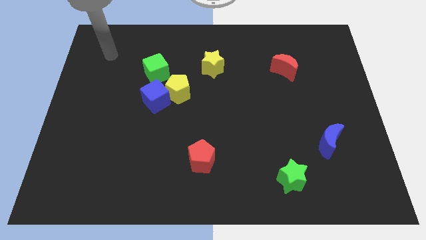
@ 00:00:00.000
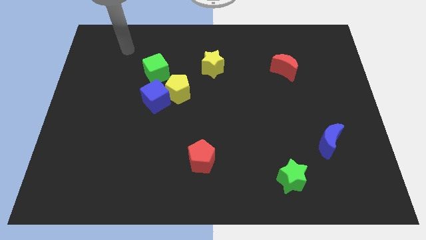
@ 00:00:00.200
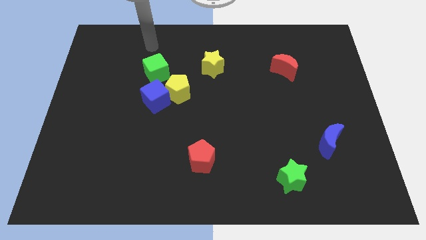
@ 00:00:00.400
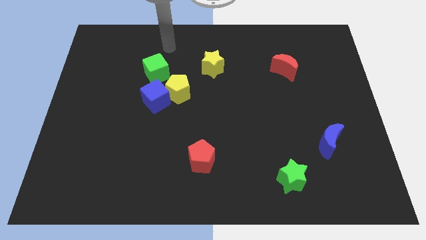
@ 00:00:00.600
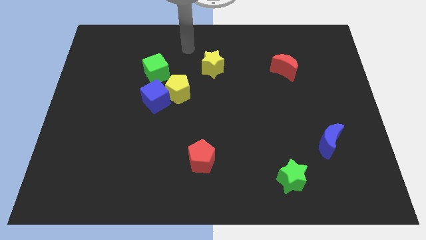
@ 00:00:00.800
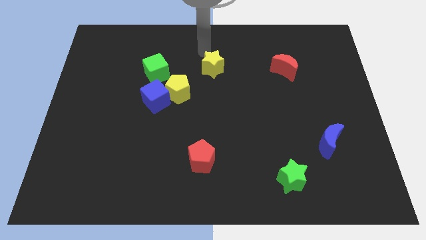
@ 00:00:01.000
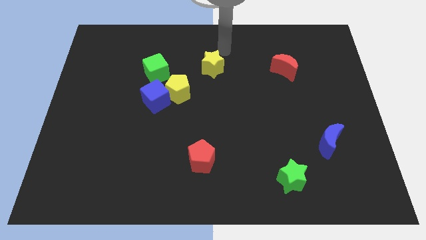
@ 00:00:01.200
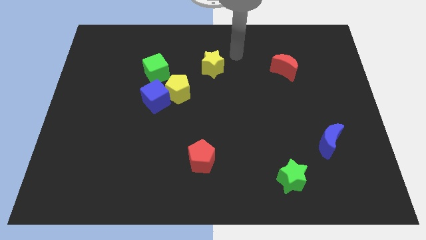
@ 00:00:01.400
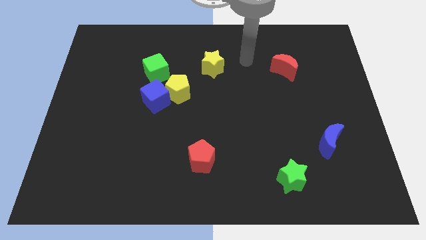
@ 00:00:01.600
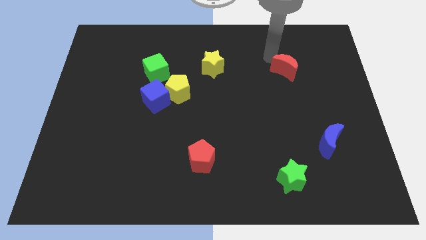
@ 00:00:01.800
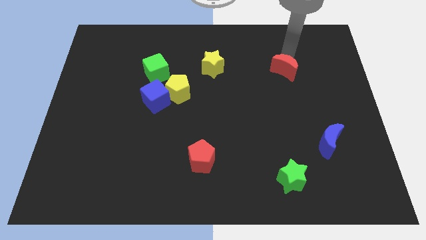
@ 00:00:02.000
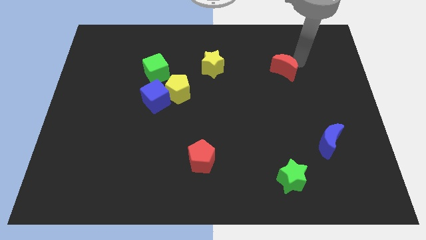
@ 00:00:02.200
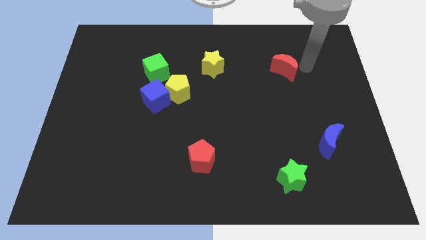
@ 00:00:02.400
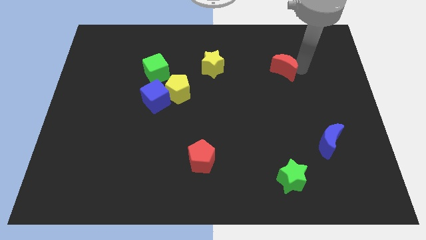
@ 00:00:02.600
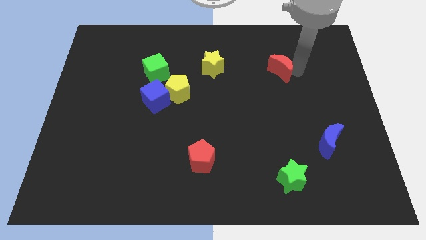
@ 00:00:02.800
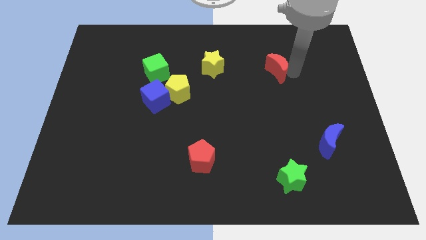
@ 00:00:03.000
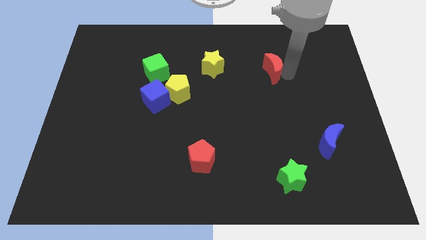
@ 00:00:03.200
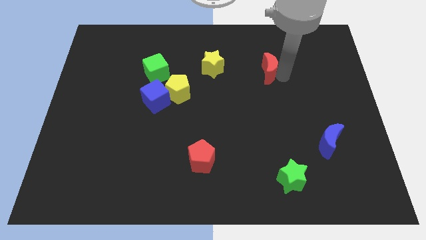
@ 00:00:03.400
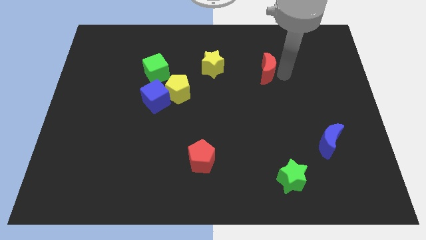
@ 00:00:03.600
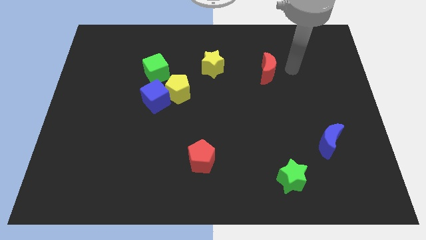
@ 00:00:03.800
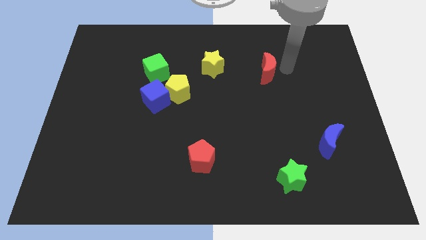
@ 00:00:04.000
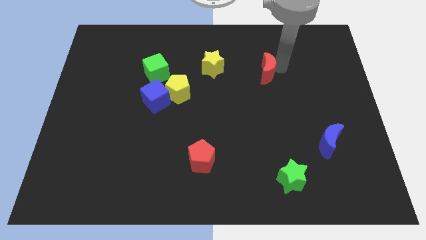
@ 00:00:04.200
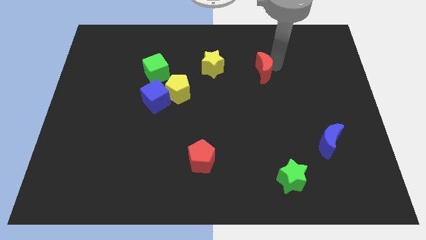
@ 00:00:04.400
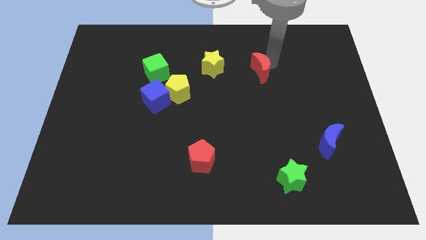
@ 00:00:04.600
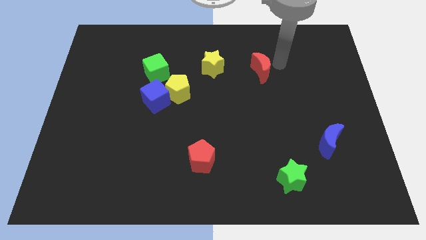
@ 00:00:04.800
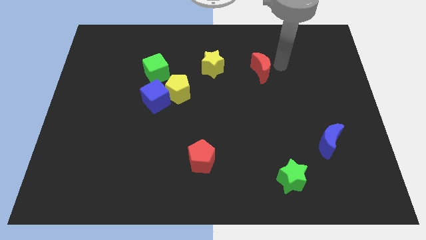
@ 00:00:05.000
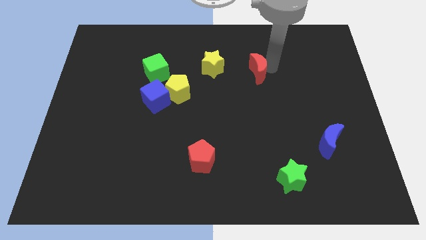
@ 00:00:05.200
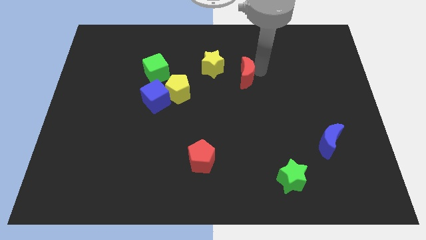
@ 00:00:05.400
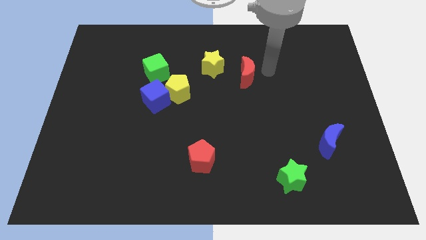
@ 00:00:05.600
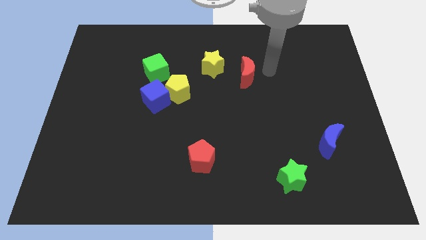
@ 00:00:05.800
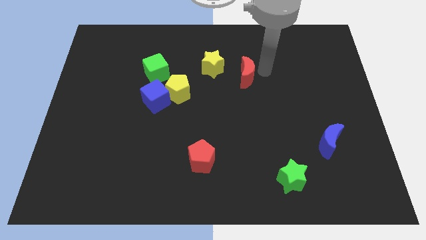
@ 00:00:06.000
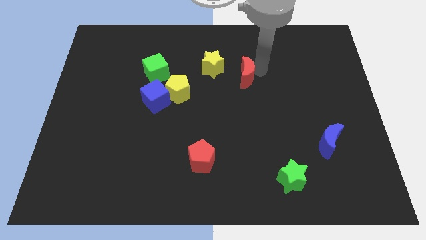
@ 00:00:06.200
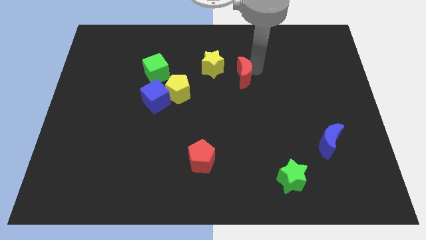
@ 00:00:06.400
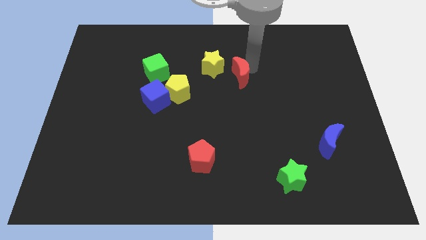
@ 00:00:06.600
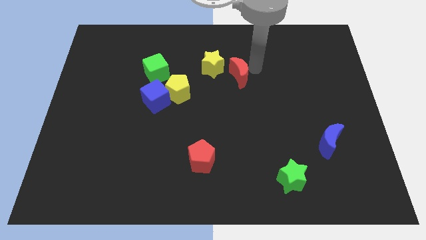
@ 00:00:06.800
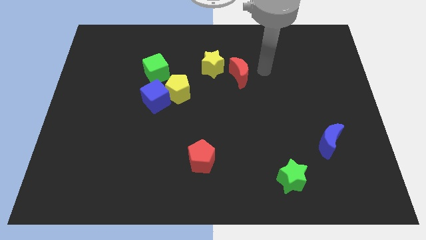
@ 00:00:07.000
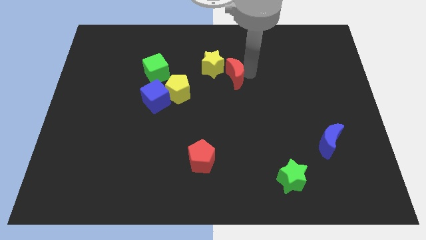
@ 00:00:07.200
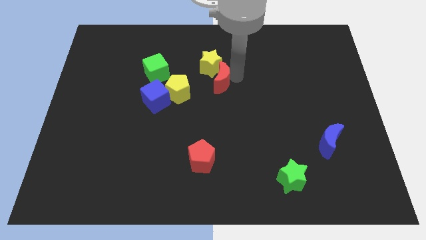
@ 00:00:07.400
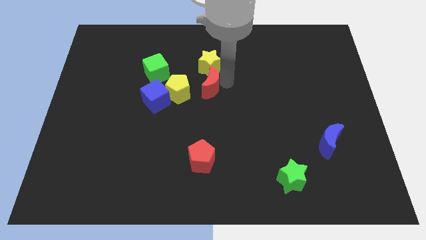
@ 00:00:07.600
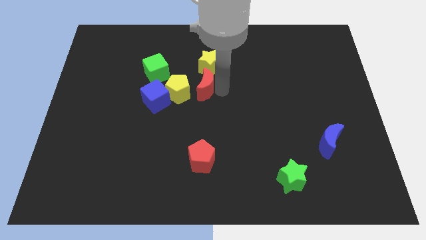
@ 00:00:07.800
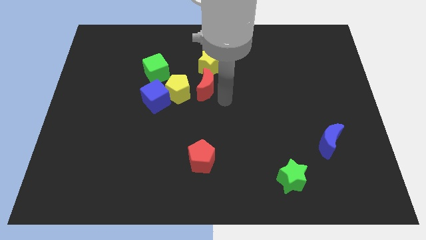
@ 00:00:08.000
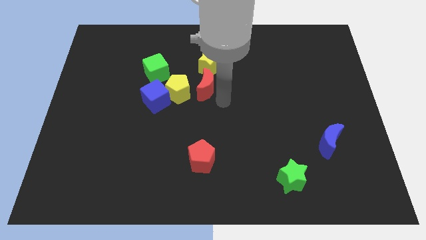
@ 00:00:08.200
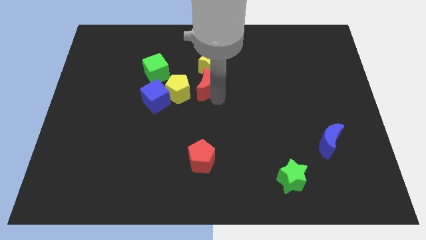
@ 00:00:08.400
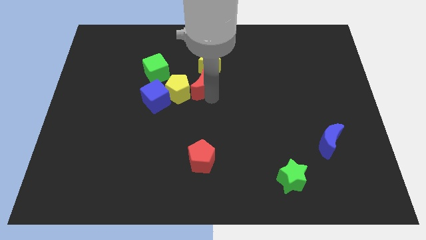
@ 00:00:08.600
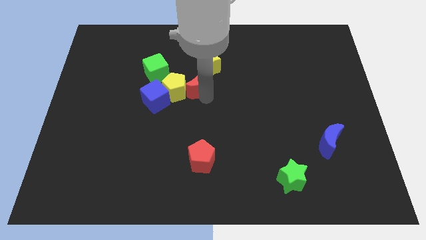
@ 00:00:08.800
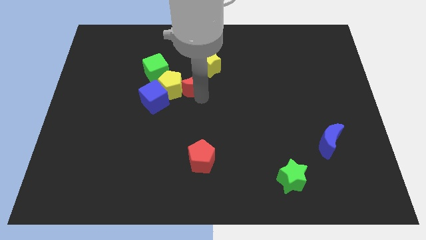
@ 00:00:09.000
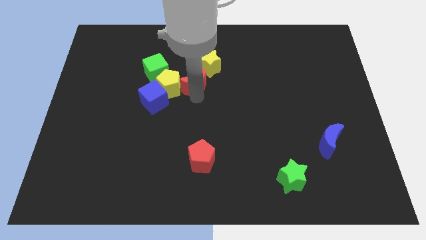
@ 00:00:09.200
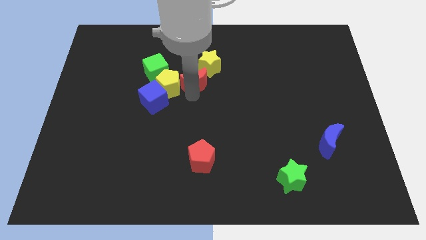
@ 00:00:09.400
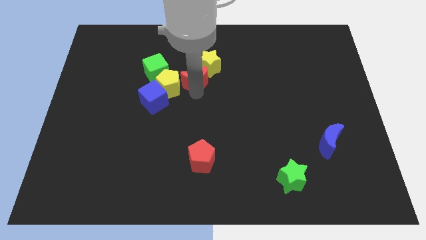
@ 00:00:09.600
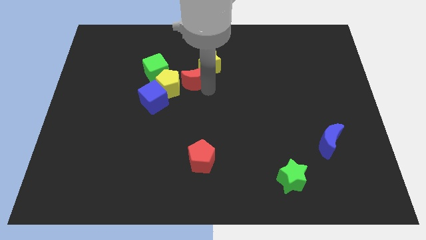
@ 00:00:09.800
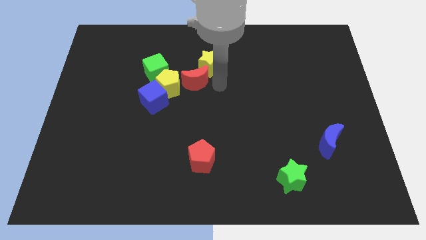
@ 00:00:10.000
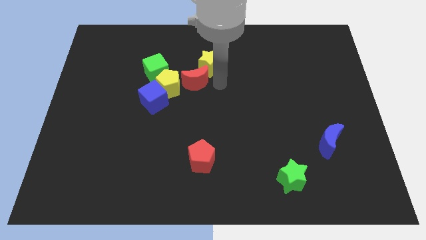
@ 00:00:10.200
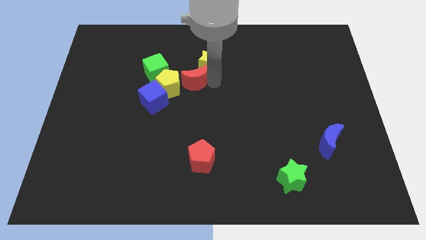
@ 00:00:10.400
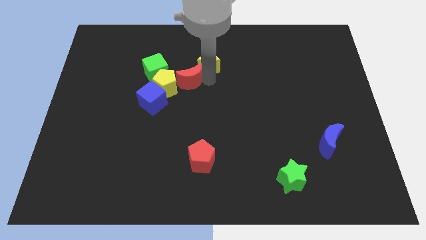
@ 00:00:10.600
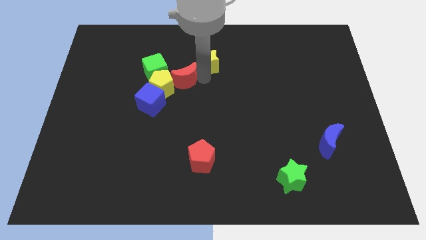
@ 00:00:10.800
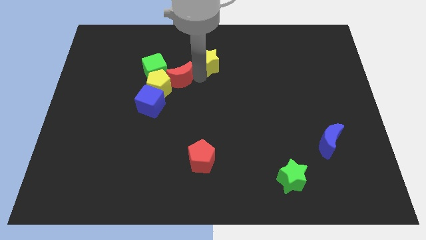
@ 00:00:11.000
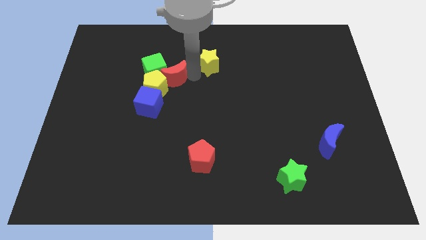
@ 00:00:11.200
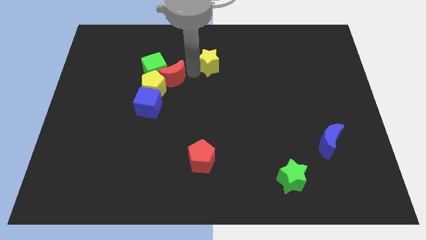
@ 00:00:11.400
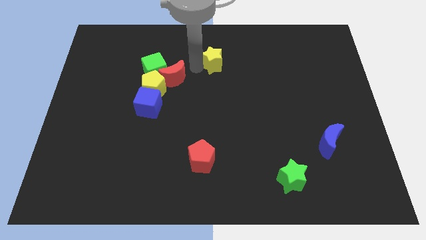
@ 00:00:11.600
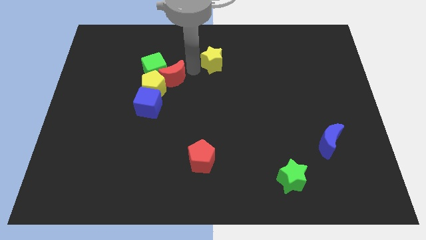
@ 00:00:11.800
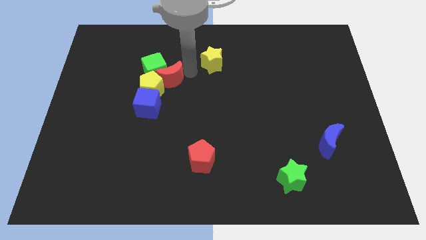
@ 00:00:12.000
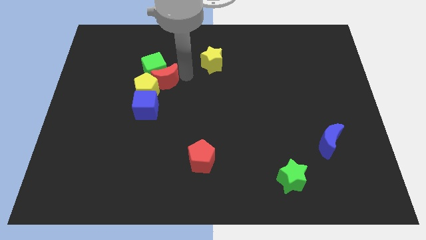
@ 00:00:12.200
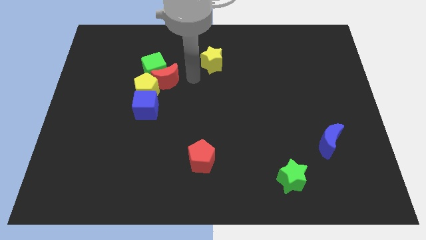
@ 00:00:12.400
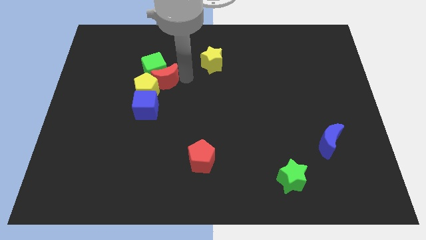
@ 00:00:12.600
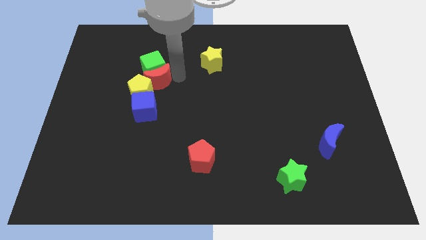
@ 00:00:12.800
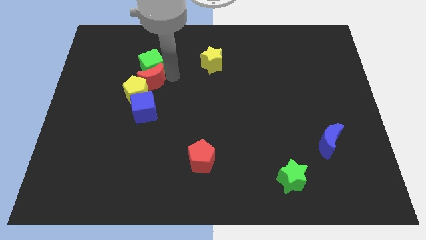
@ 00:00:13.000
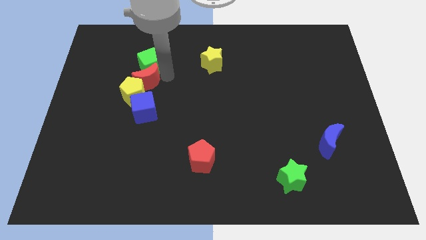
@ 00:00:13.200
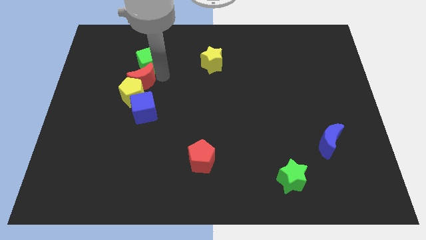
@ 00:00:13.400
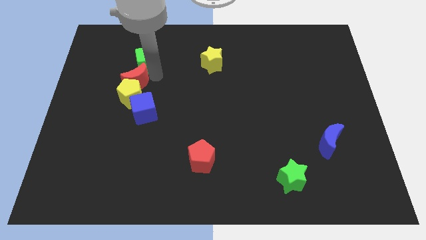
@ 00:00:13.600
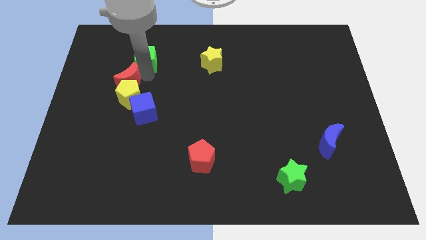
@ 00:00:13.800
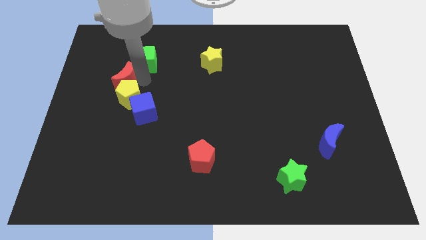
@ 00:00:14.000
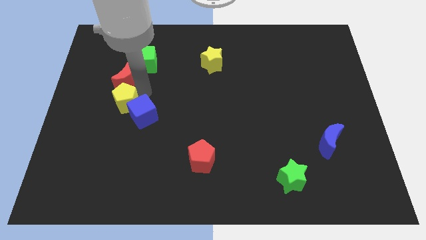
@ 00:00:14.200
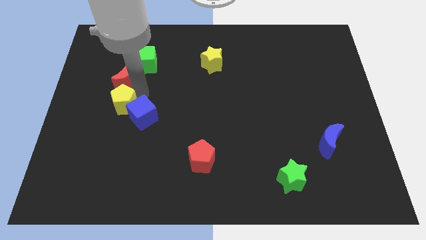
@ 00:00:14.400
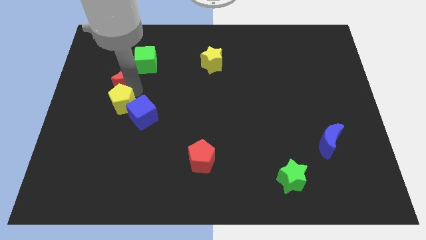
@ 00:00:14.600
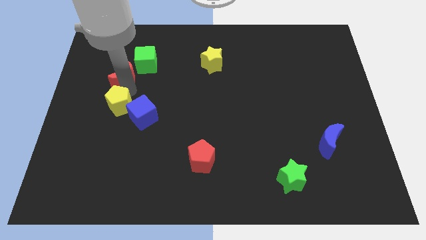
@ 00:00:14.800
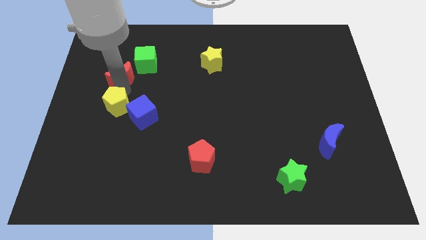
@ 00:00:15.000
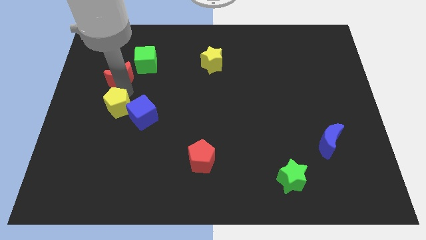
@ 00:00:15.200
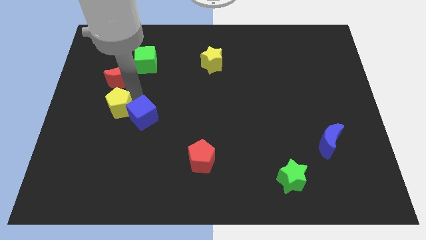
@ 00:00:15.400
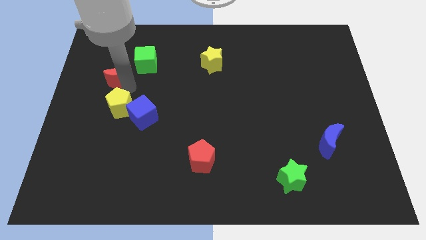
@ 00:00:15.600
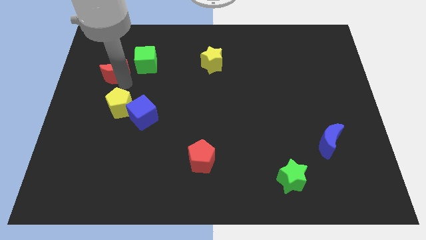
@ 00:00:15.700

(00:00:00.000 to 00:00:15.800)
put the red moon to the left side of the green cube
